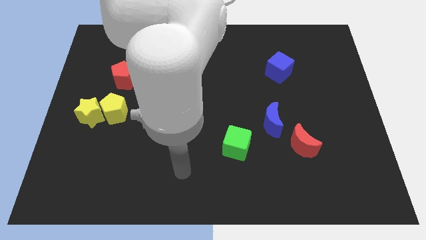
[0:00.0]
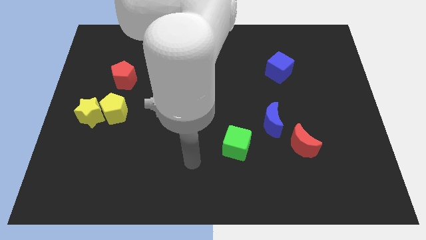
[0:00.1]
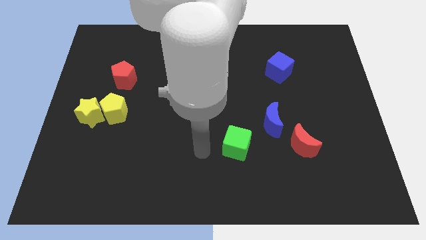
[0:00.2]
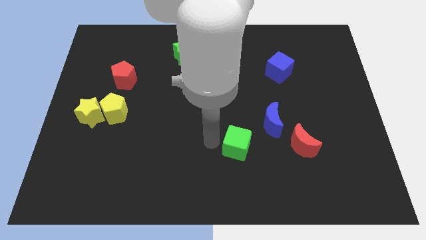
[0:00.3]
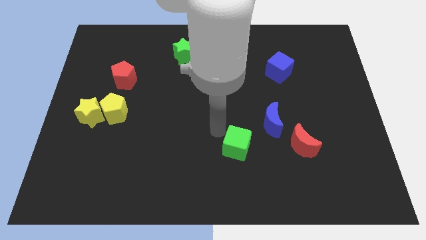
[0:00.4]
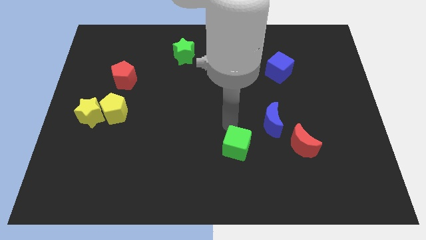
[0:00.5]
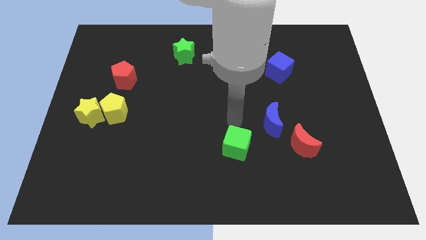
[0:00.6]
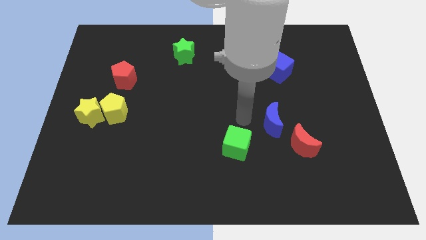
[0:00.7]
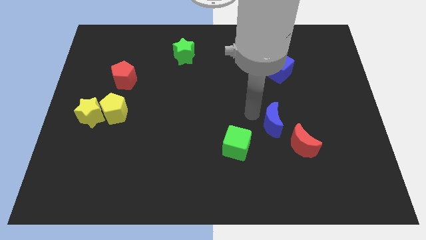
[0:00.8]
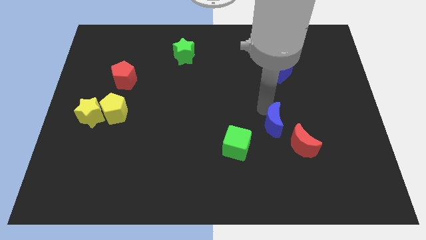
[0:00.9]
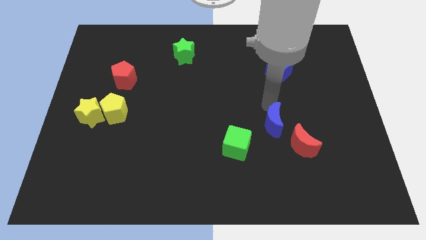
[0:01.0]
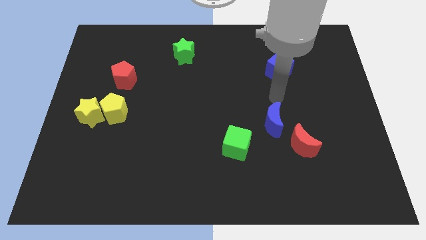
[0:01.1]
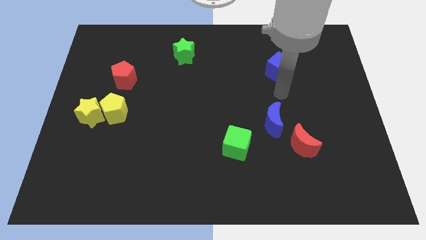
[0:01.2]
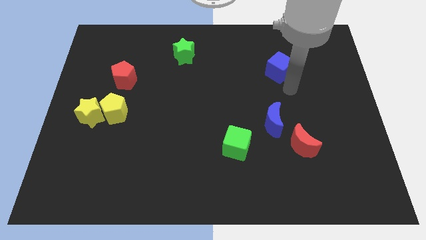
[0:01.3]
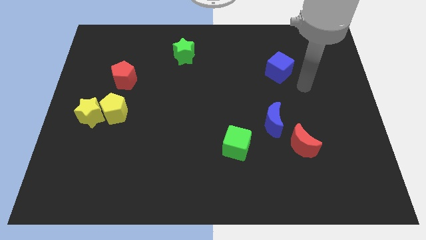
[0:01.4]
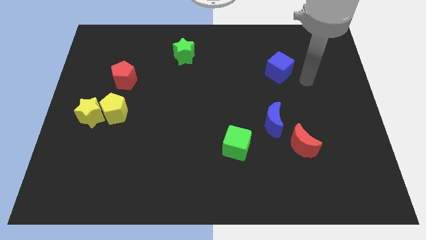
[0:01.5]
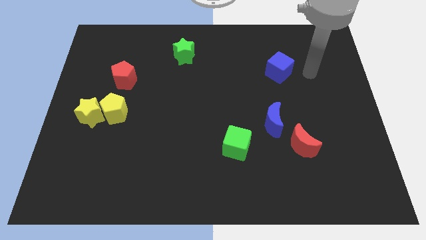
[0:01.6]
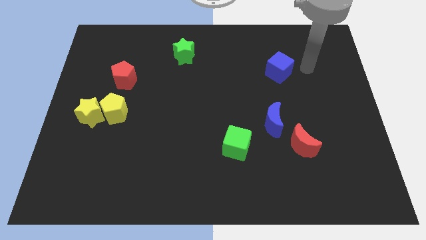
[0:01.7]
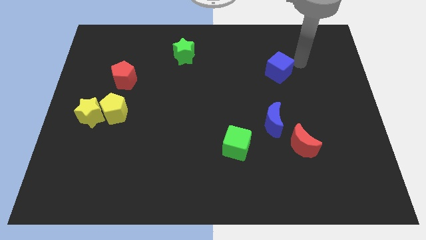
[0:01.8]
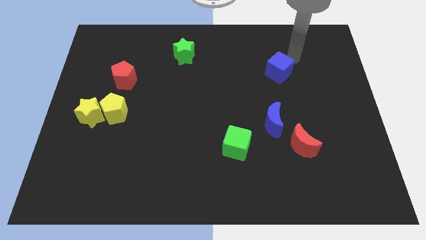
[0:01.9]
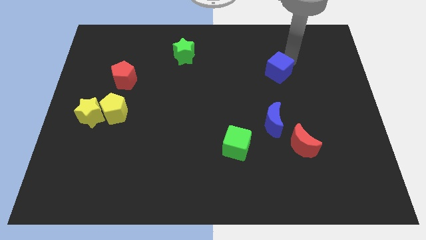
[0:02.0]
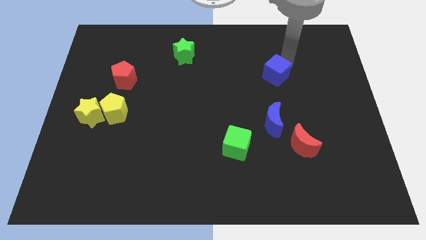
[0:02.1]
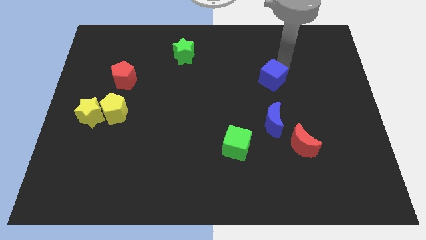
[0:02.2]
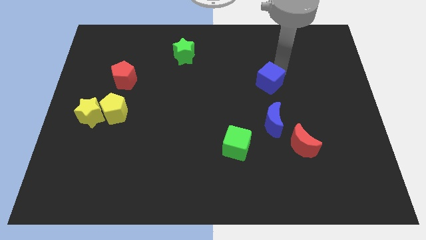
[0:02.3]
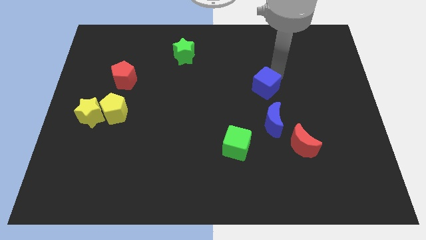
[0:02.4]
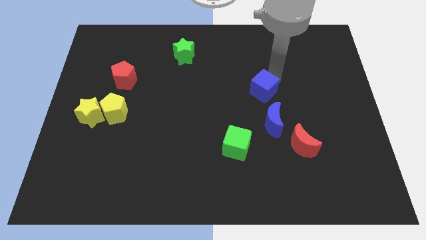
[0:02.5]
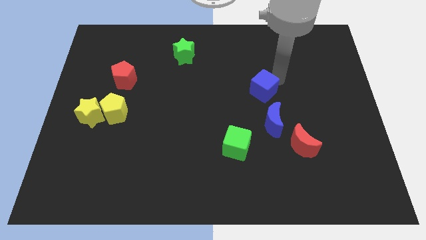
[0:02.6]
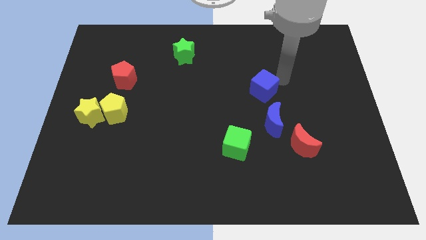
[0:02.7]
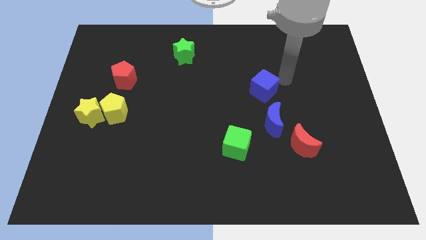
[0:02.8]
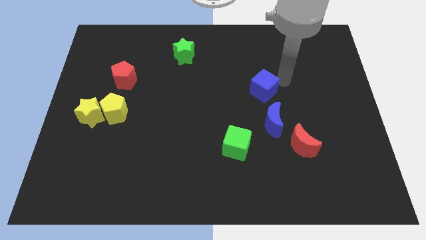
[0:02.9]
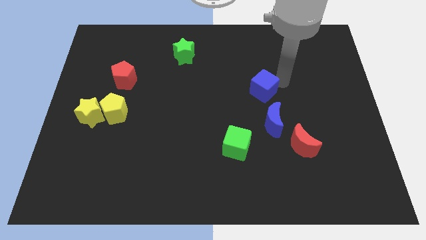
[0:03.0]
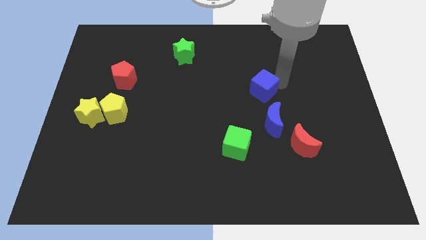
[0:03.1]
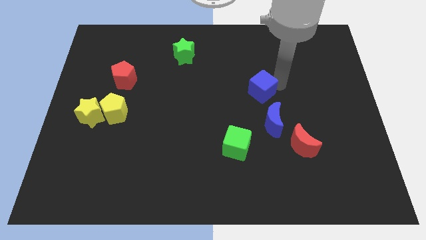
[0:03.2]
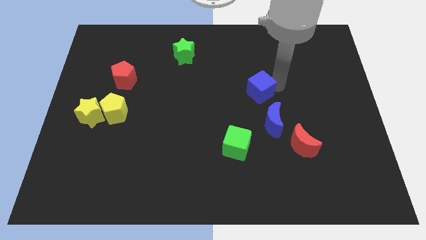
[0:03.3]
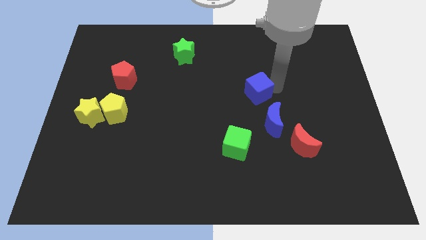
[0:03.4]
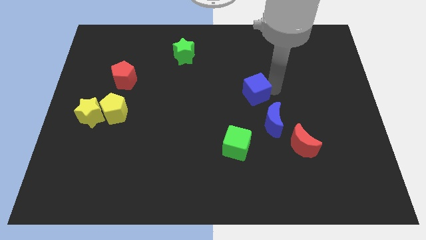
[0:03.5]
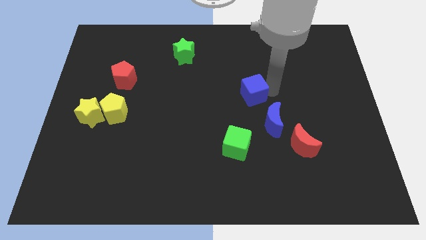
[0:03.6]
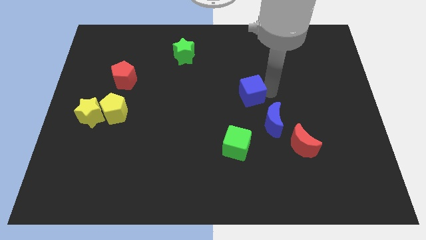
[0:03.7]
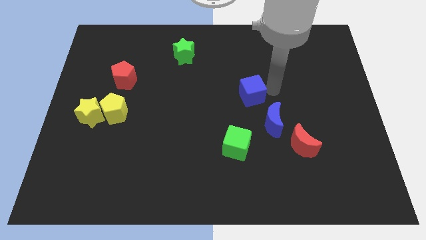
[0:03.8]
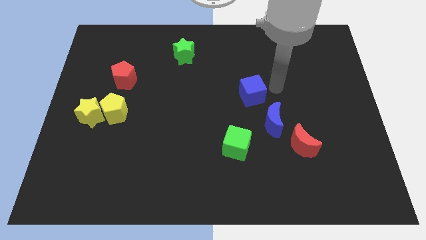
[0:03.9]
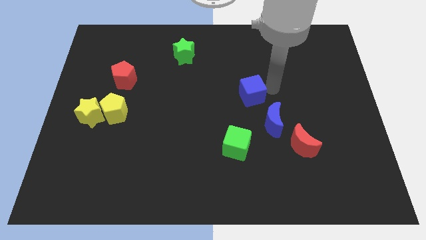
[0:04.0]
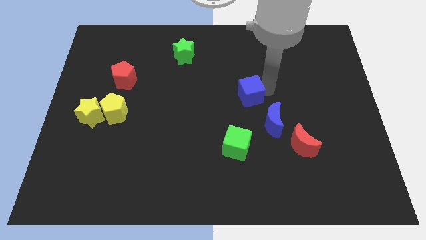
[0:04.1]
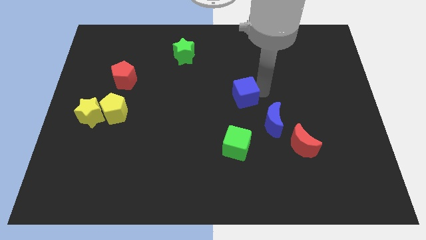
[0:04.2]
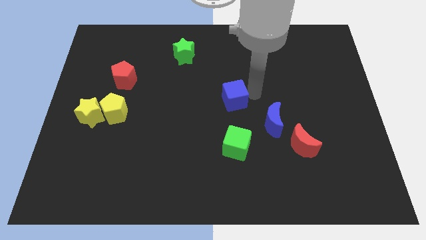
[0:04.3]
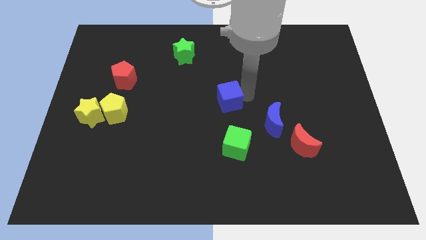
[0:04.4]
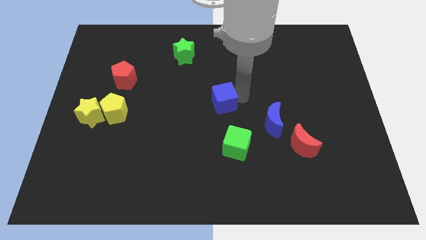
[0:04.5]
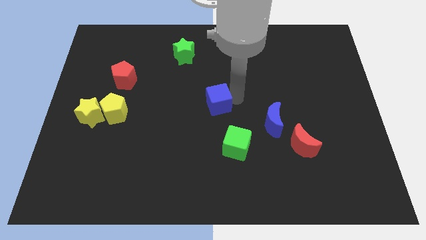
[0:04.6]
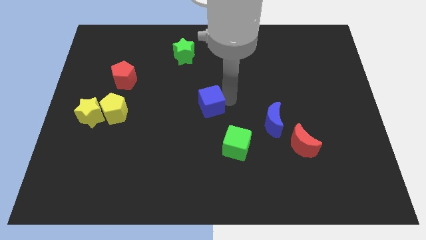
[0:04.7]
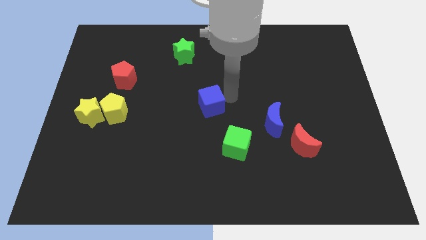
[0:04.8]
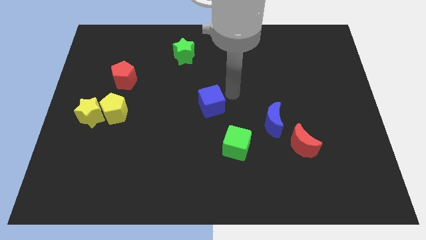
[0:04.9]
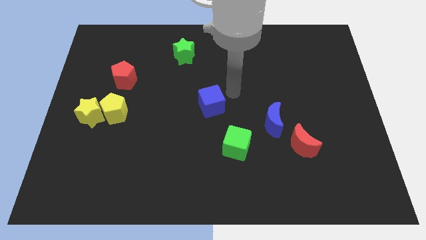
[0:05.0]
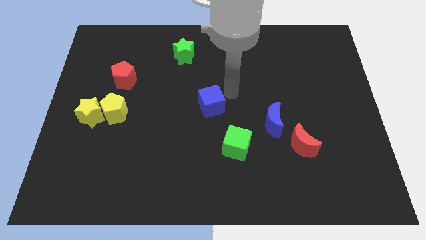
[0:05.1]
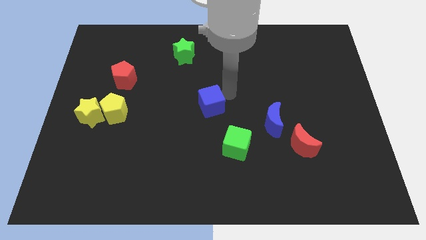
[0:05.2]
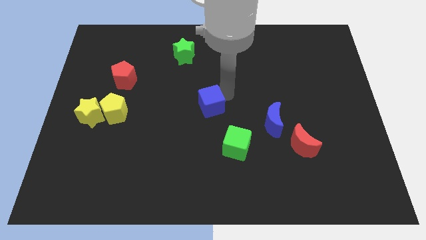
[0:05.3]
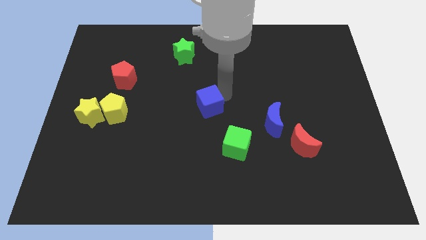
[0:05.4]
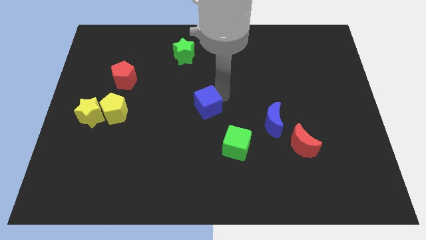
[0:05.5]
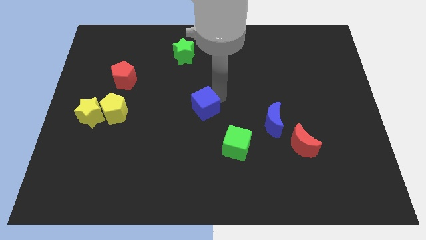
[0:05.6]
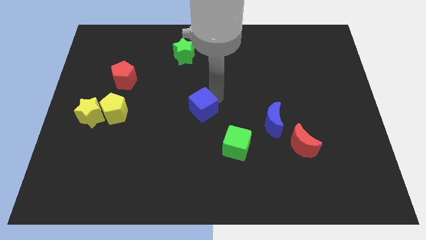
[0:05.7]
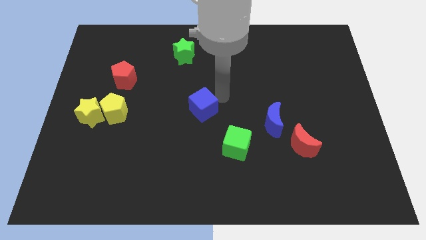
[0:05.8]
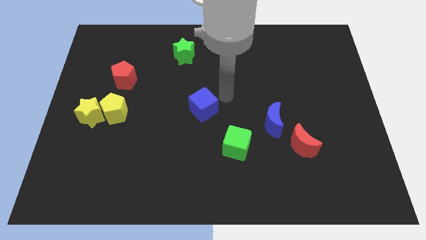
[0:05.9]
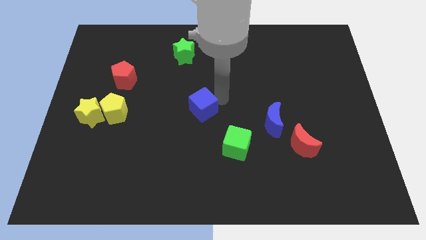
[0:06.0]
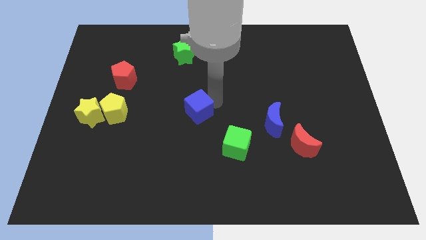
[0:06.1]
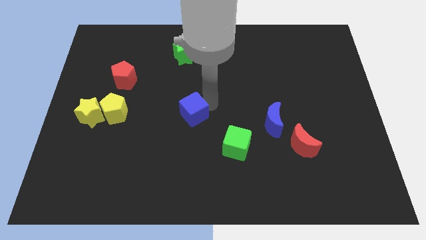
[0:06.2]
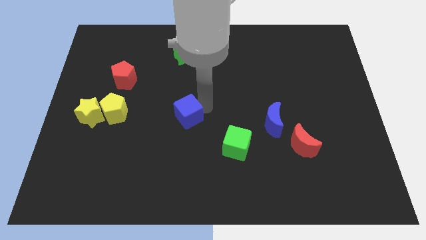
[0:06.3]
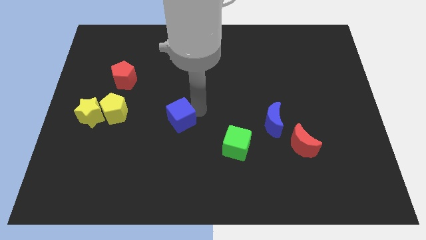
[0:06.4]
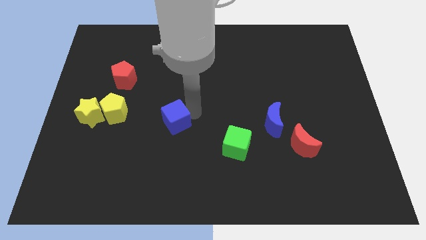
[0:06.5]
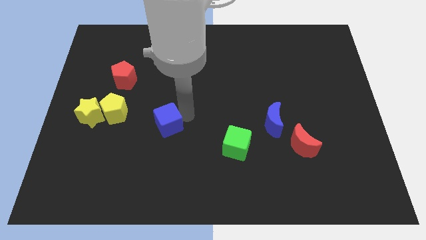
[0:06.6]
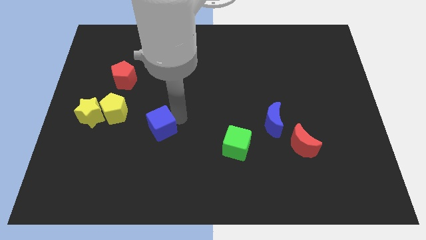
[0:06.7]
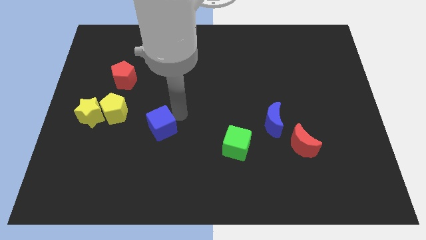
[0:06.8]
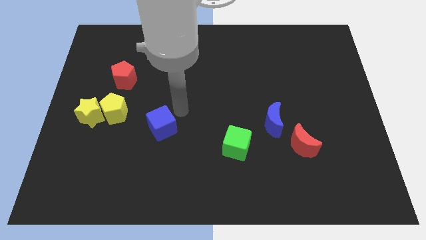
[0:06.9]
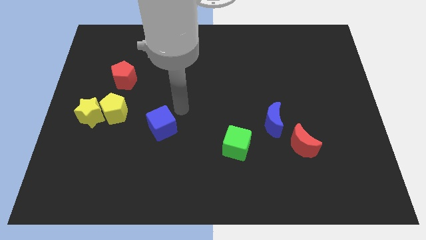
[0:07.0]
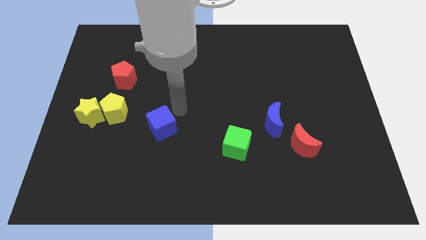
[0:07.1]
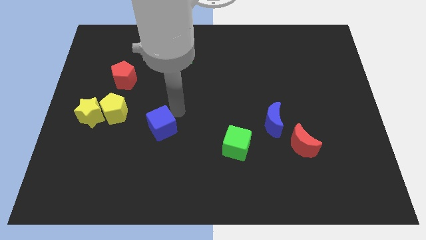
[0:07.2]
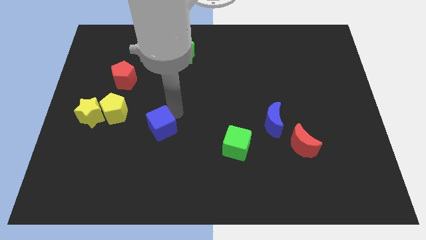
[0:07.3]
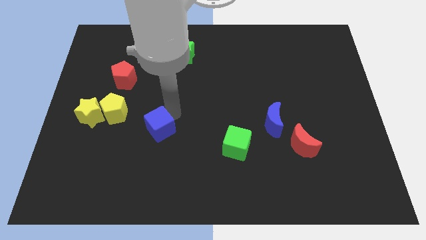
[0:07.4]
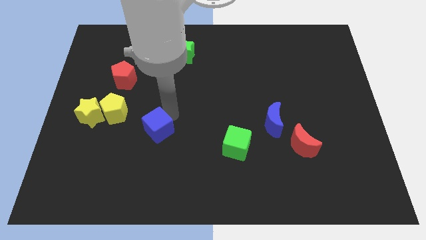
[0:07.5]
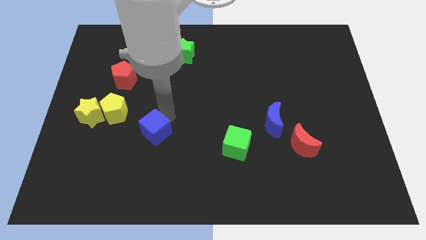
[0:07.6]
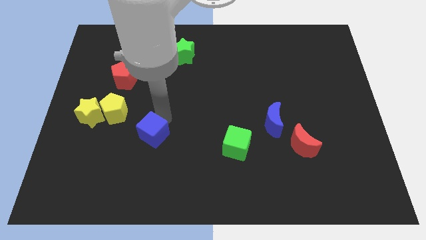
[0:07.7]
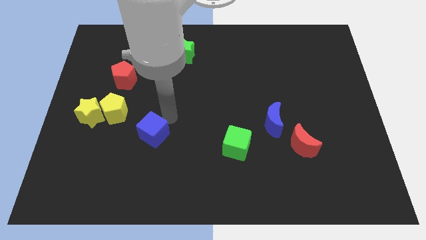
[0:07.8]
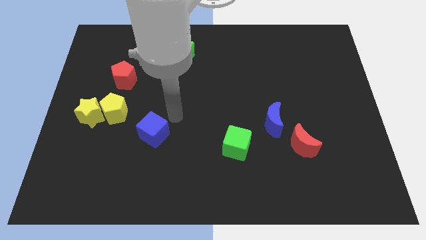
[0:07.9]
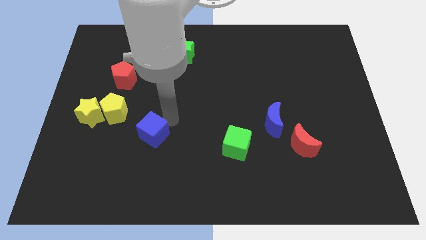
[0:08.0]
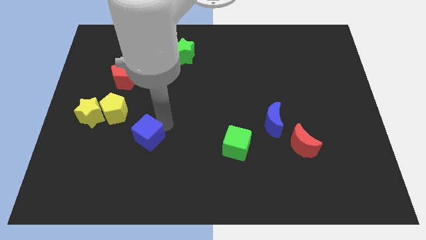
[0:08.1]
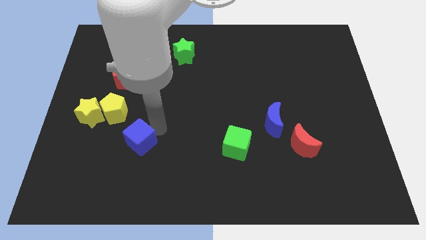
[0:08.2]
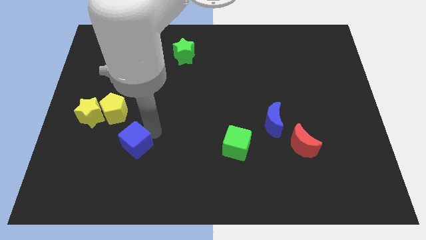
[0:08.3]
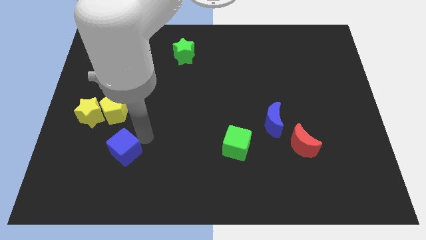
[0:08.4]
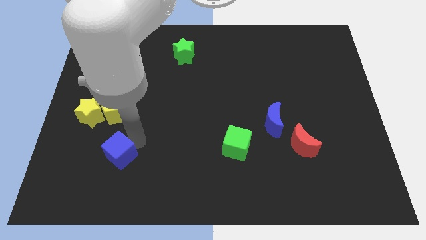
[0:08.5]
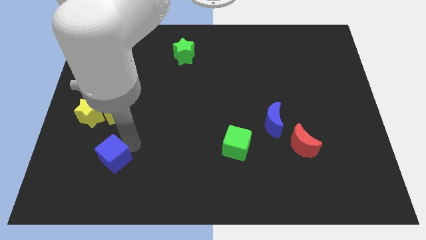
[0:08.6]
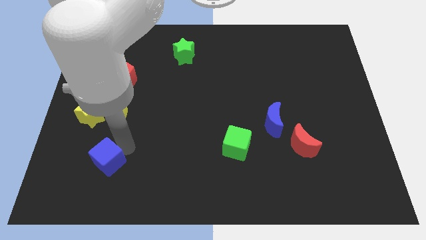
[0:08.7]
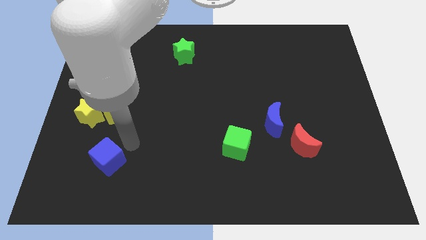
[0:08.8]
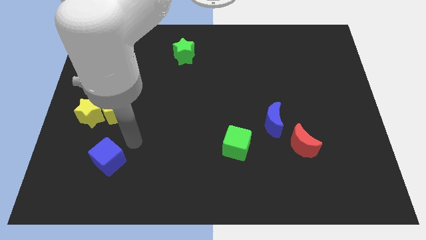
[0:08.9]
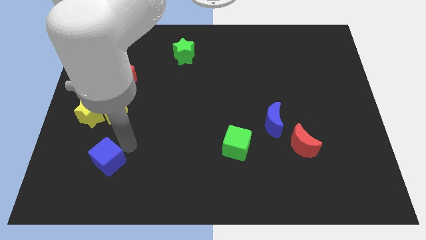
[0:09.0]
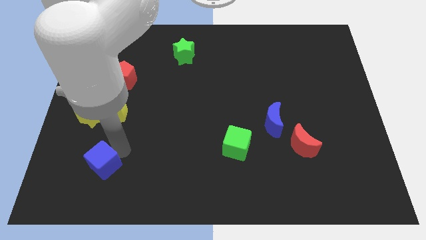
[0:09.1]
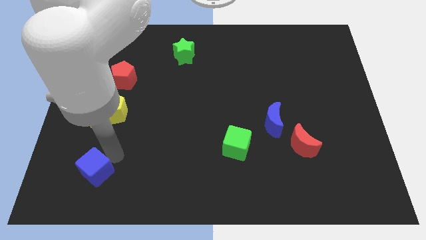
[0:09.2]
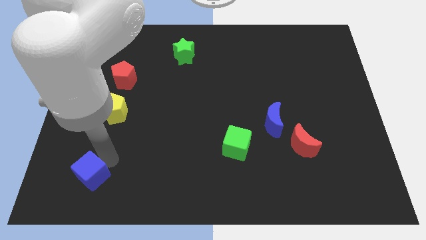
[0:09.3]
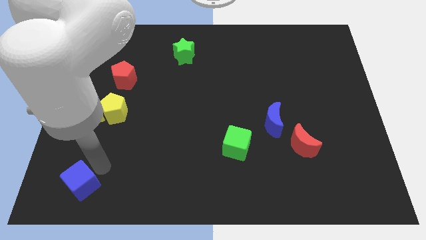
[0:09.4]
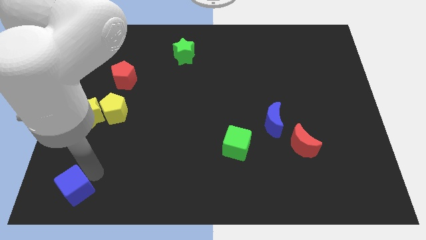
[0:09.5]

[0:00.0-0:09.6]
put the blue cube to the bottom left corner
